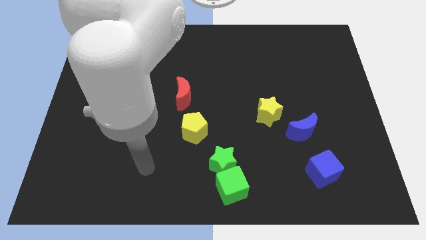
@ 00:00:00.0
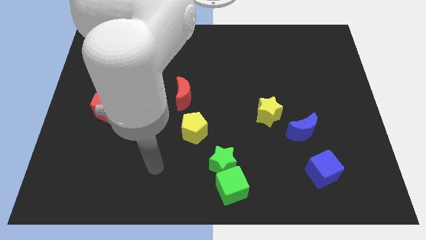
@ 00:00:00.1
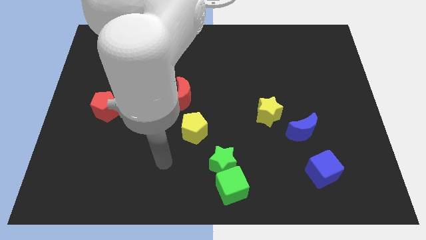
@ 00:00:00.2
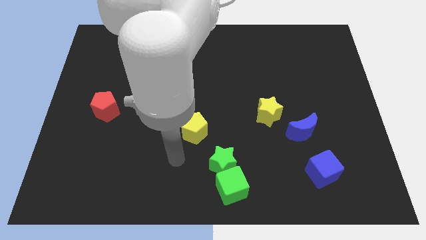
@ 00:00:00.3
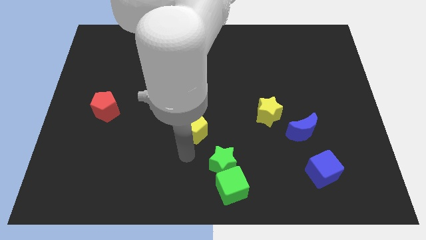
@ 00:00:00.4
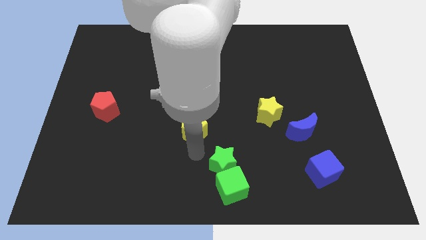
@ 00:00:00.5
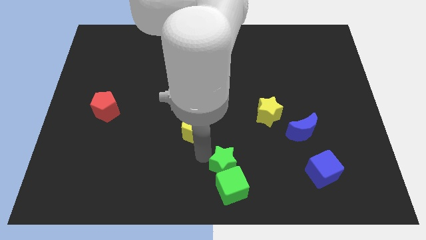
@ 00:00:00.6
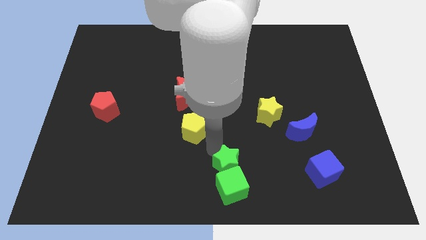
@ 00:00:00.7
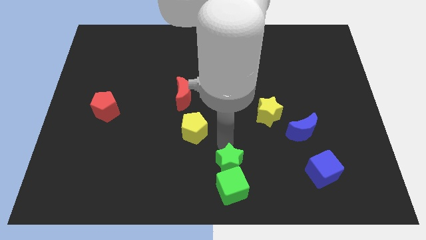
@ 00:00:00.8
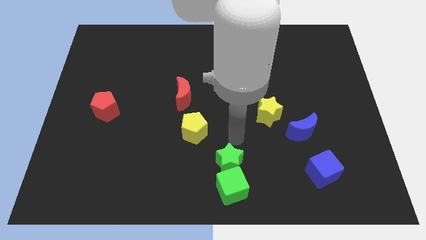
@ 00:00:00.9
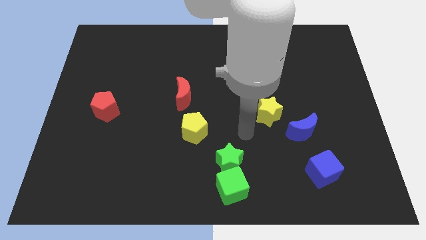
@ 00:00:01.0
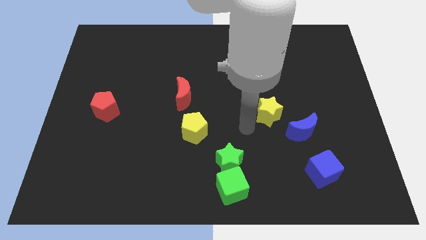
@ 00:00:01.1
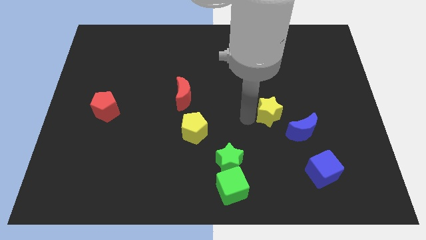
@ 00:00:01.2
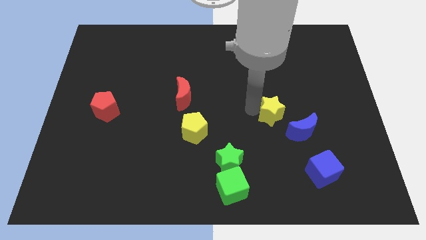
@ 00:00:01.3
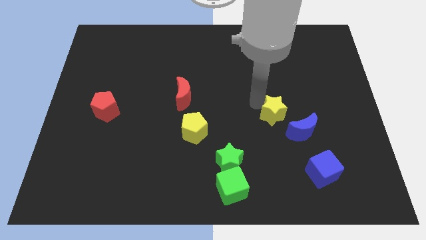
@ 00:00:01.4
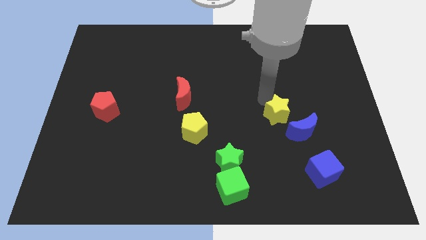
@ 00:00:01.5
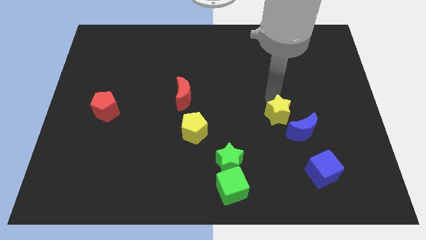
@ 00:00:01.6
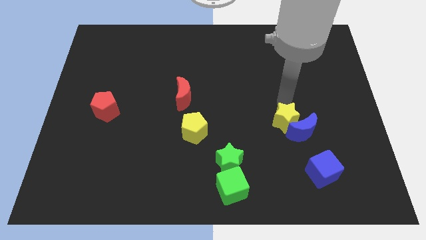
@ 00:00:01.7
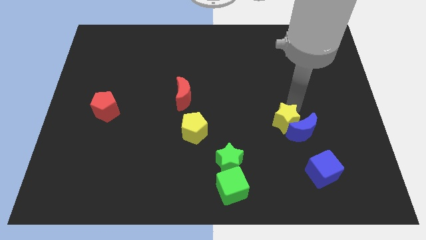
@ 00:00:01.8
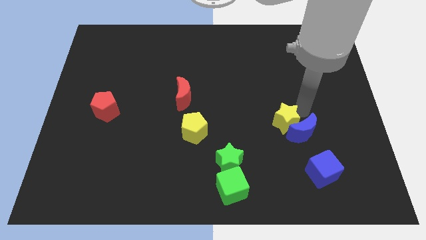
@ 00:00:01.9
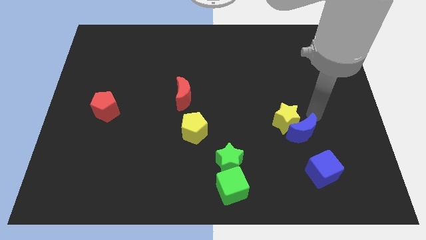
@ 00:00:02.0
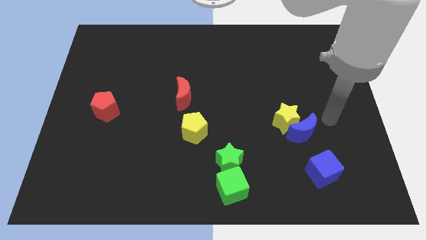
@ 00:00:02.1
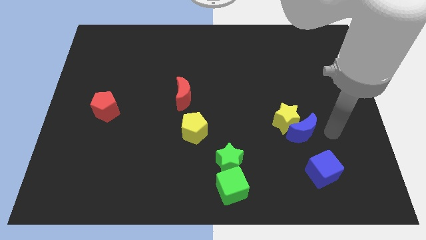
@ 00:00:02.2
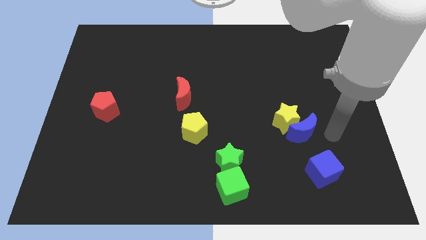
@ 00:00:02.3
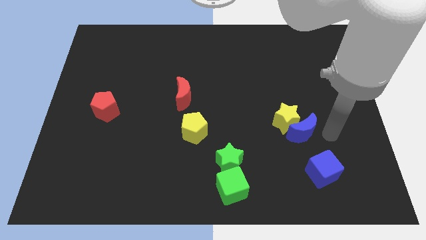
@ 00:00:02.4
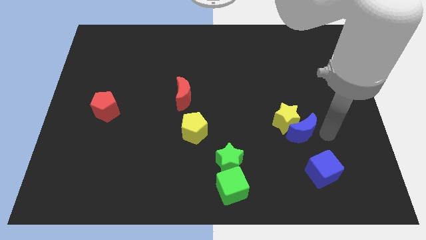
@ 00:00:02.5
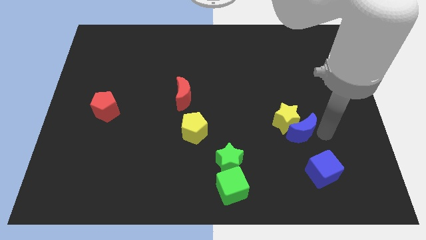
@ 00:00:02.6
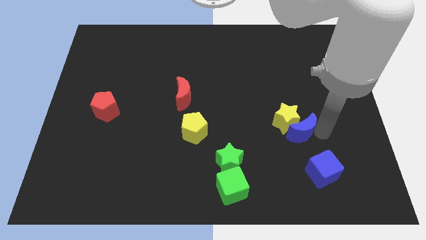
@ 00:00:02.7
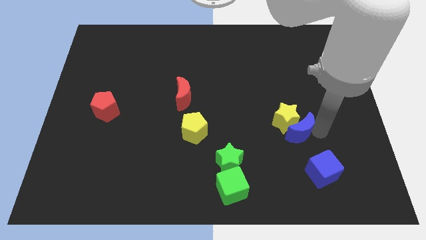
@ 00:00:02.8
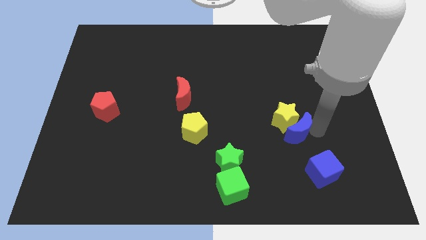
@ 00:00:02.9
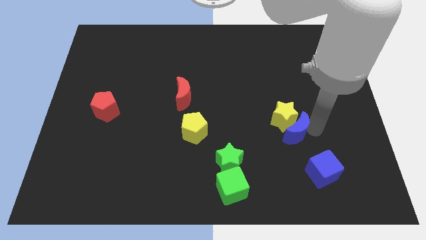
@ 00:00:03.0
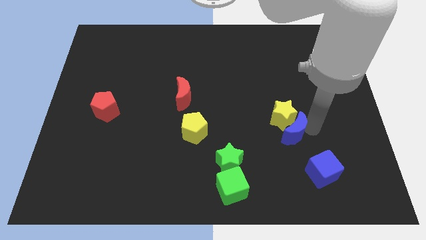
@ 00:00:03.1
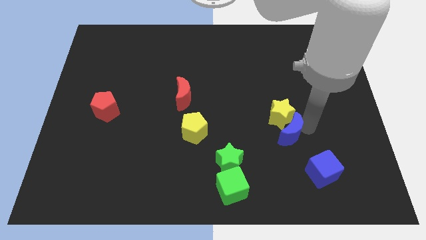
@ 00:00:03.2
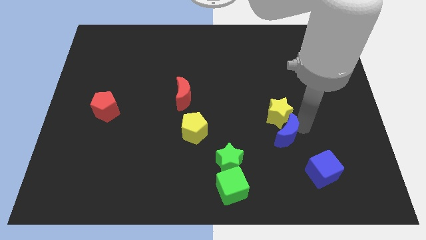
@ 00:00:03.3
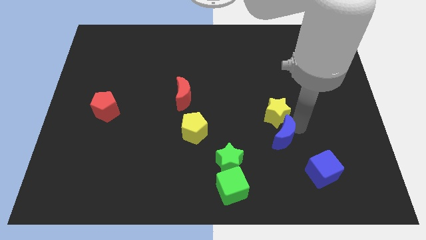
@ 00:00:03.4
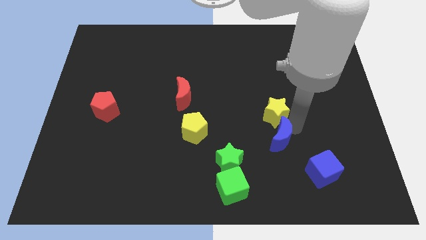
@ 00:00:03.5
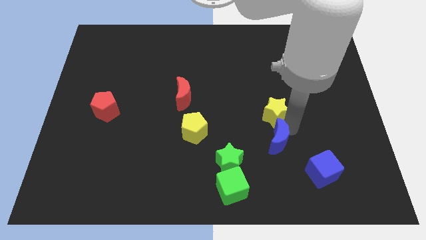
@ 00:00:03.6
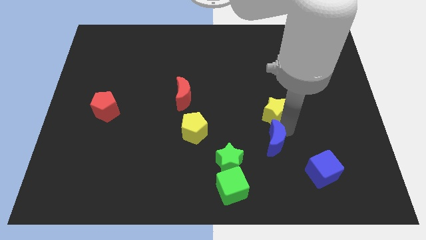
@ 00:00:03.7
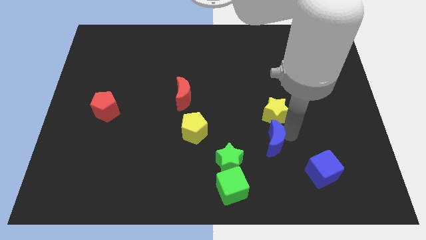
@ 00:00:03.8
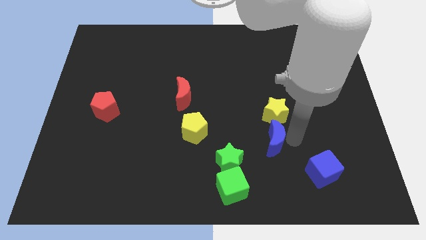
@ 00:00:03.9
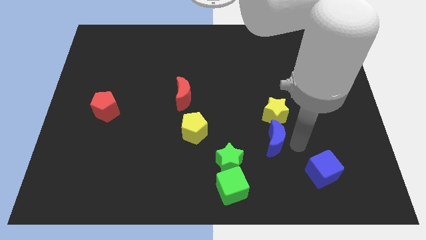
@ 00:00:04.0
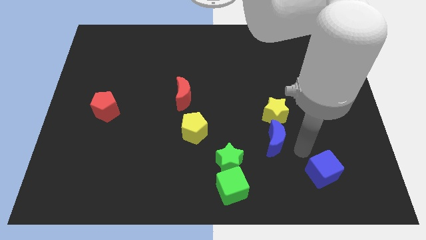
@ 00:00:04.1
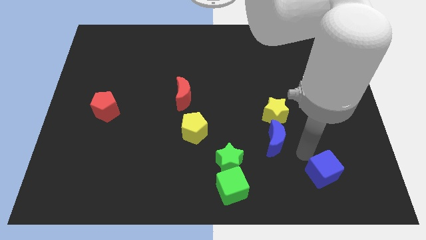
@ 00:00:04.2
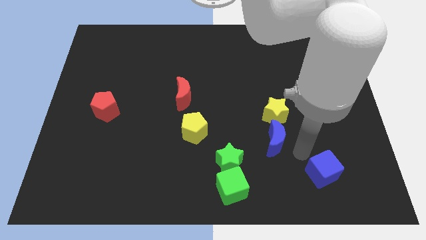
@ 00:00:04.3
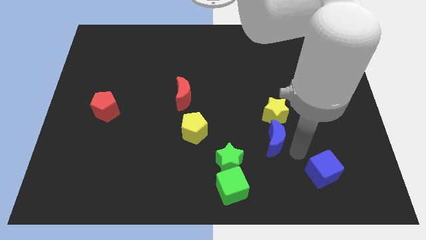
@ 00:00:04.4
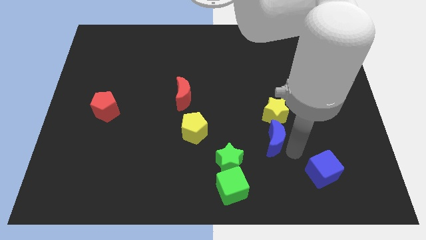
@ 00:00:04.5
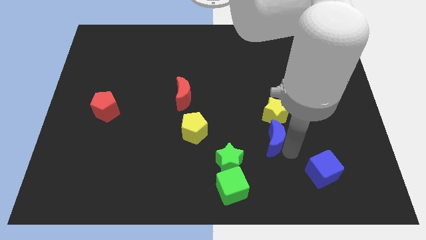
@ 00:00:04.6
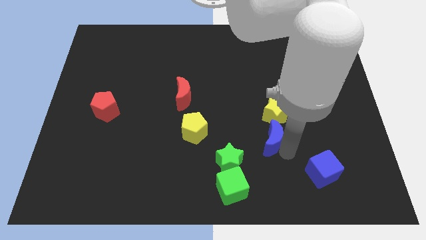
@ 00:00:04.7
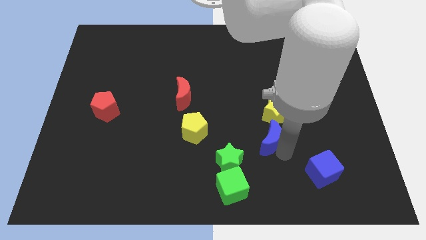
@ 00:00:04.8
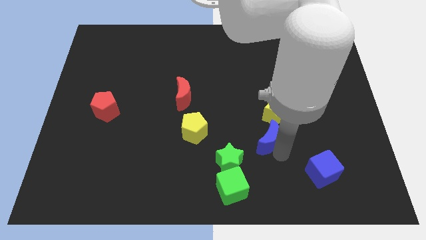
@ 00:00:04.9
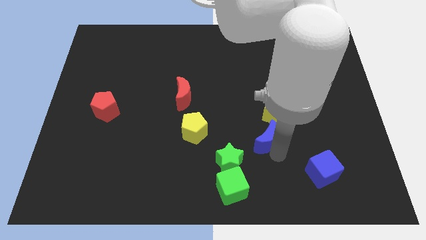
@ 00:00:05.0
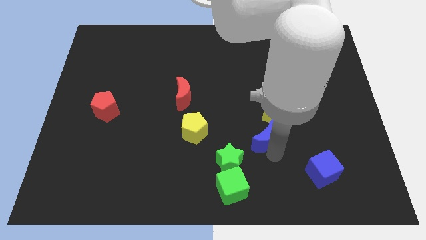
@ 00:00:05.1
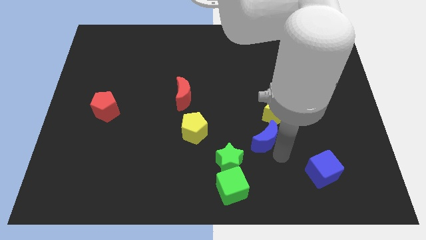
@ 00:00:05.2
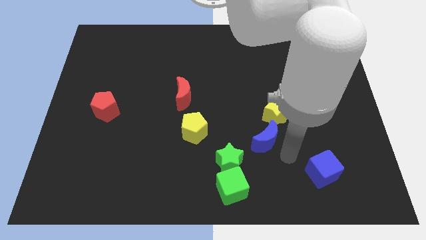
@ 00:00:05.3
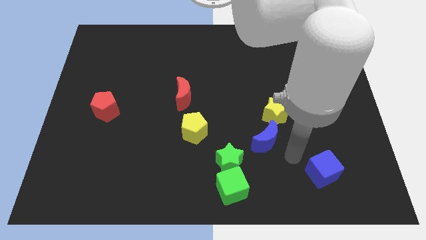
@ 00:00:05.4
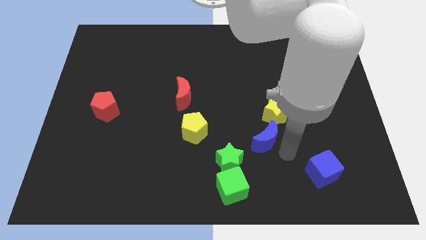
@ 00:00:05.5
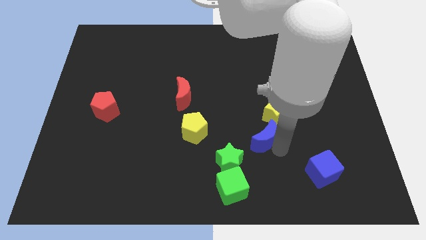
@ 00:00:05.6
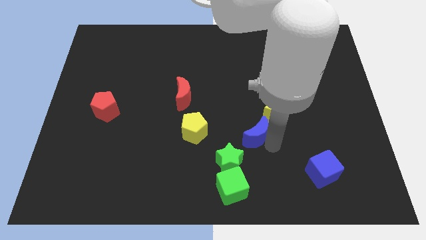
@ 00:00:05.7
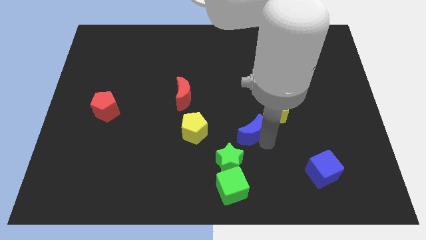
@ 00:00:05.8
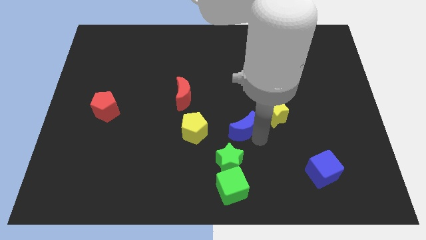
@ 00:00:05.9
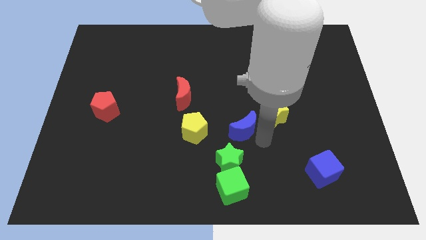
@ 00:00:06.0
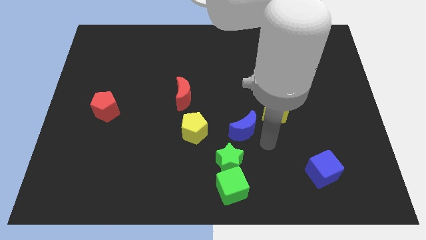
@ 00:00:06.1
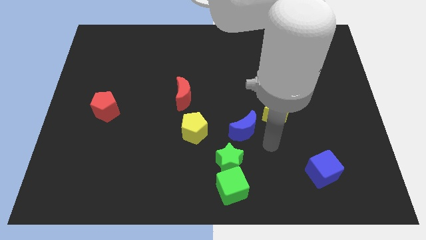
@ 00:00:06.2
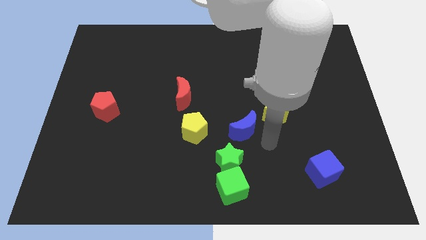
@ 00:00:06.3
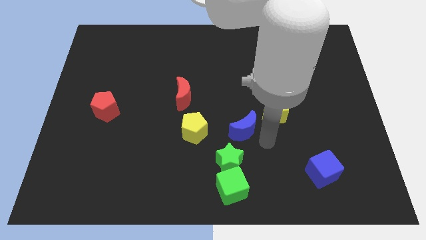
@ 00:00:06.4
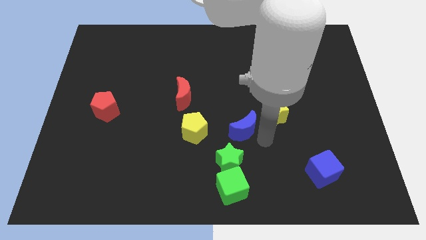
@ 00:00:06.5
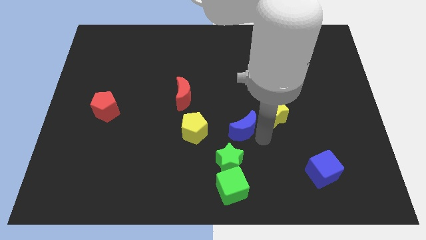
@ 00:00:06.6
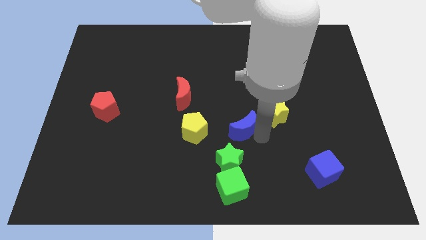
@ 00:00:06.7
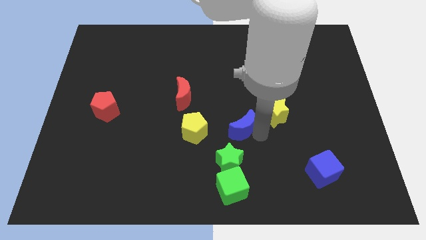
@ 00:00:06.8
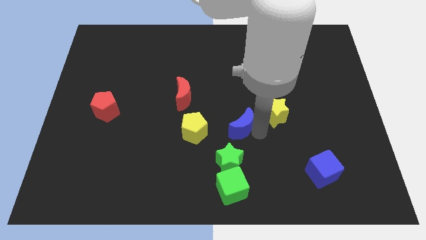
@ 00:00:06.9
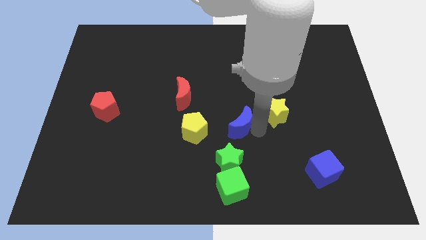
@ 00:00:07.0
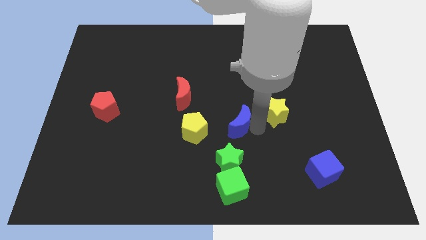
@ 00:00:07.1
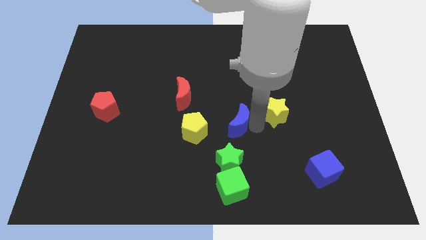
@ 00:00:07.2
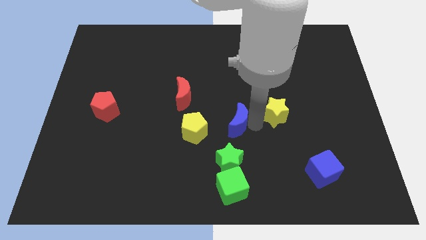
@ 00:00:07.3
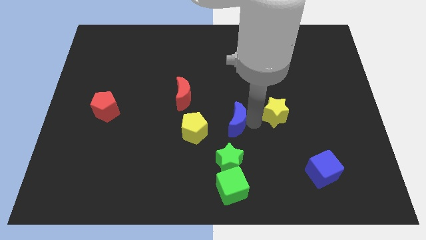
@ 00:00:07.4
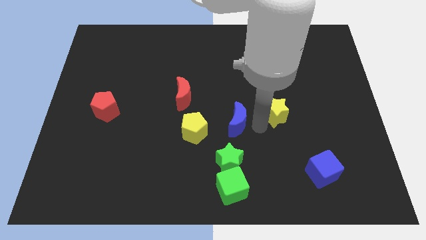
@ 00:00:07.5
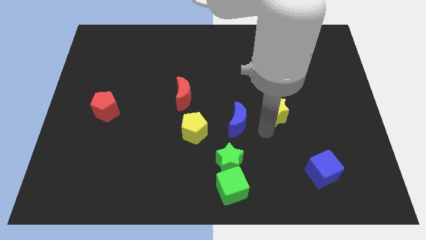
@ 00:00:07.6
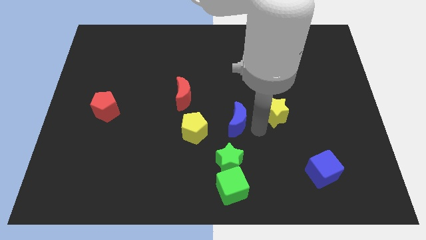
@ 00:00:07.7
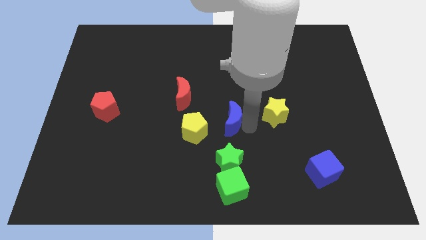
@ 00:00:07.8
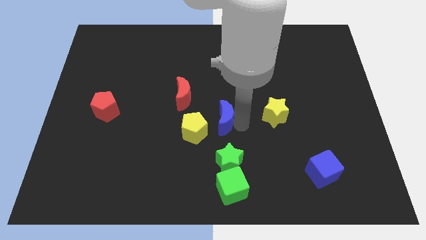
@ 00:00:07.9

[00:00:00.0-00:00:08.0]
push the blue moon diagonally down and to the right of the red moon

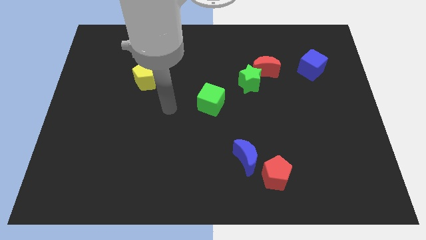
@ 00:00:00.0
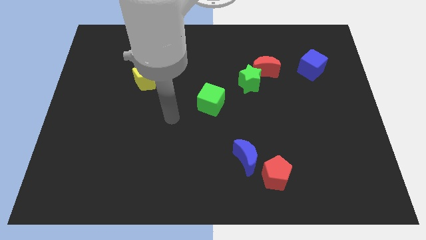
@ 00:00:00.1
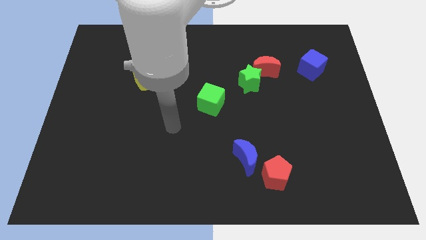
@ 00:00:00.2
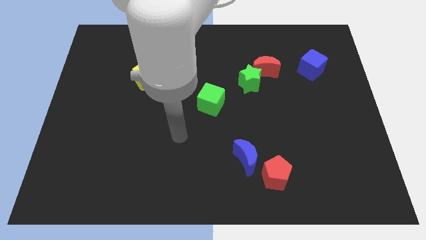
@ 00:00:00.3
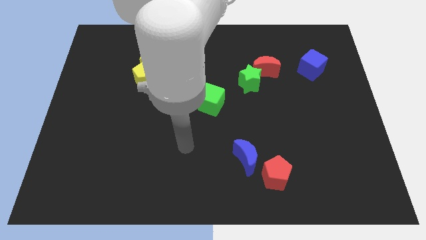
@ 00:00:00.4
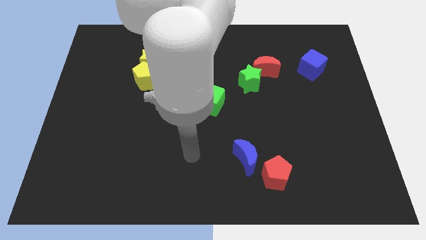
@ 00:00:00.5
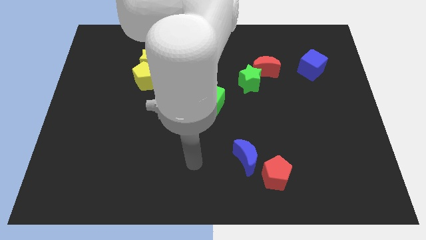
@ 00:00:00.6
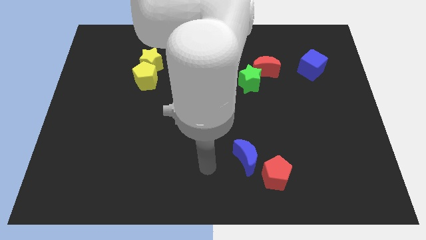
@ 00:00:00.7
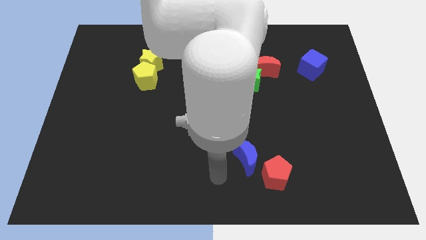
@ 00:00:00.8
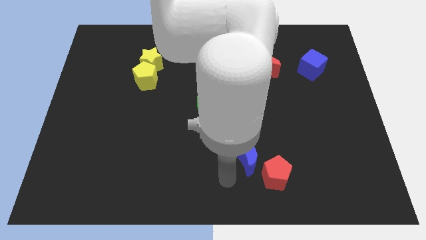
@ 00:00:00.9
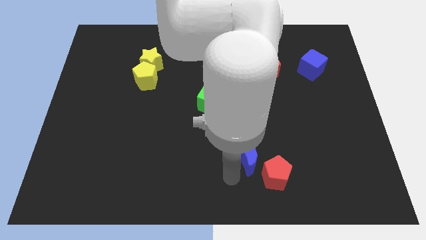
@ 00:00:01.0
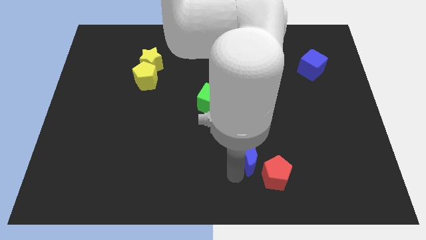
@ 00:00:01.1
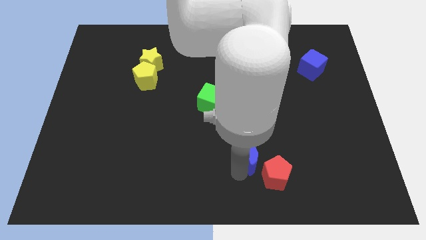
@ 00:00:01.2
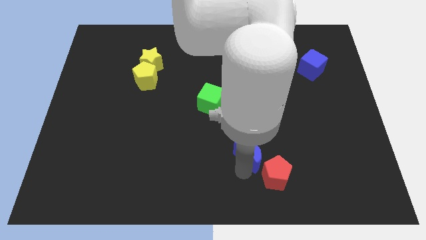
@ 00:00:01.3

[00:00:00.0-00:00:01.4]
slide the blue moon above the red pentagon
